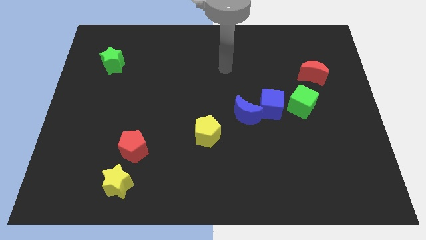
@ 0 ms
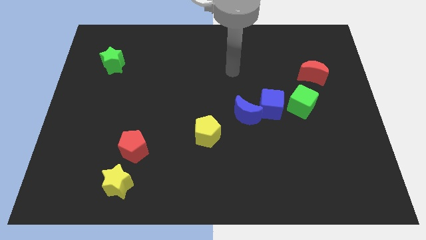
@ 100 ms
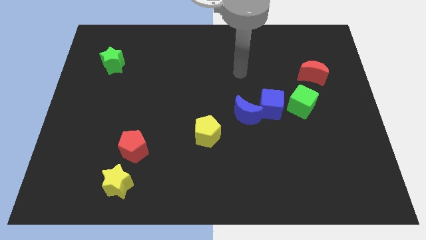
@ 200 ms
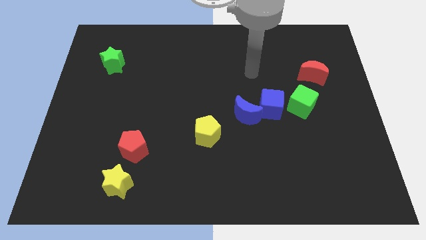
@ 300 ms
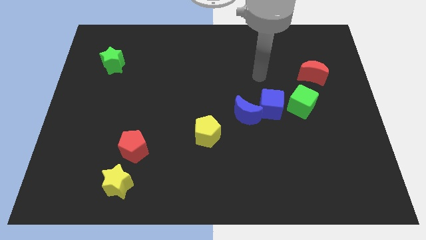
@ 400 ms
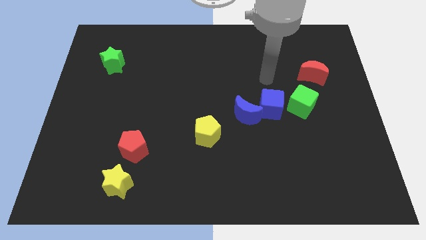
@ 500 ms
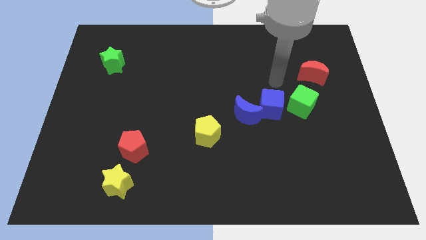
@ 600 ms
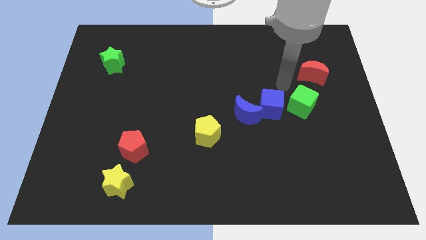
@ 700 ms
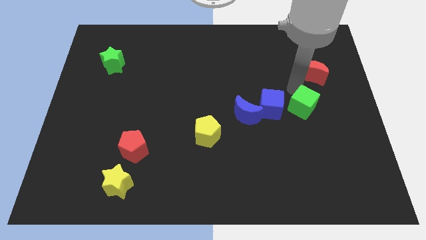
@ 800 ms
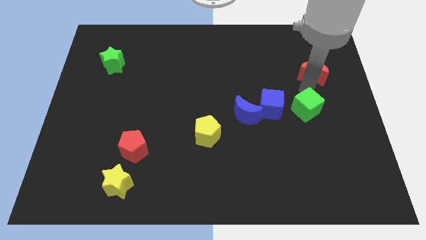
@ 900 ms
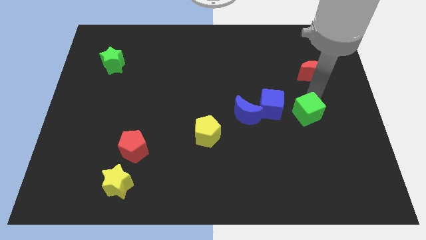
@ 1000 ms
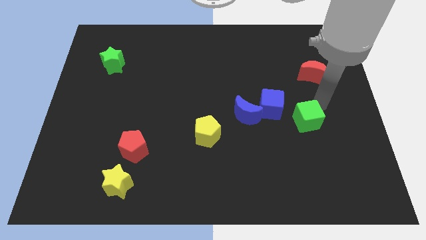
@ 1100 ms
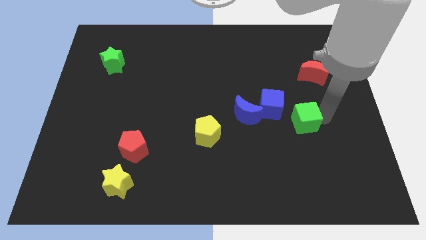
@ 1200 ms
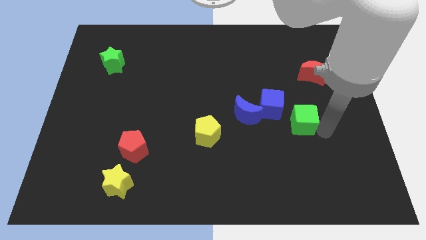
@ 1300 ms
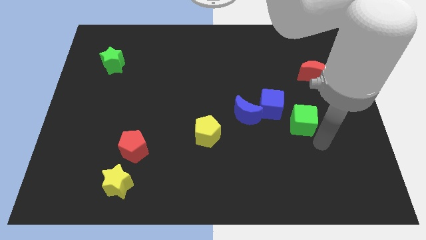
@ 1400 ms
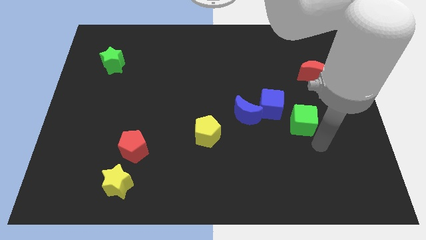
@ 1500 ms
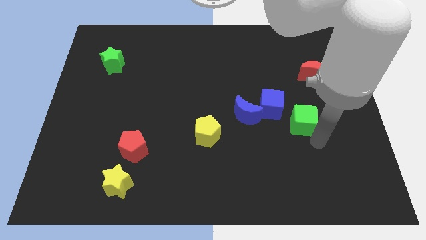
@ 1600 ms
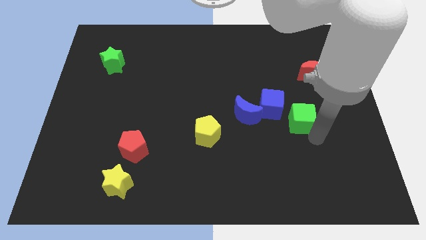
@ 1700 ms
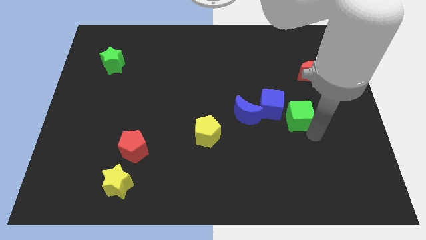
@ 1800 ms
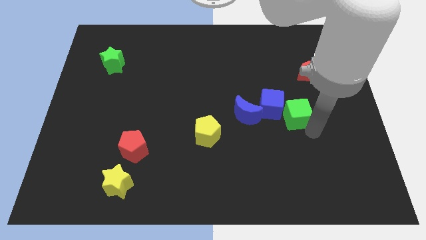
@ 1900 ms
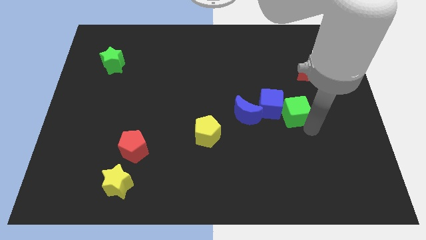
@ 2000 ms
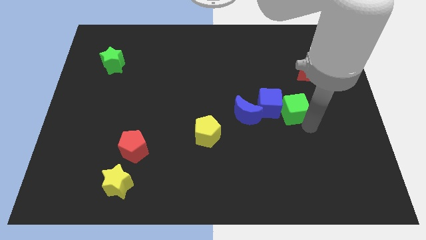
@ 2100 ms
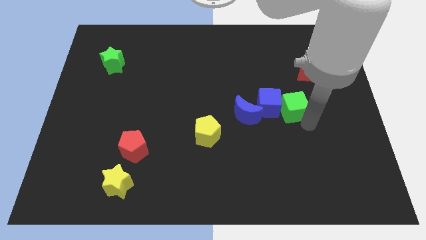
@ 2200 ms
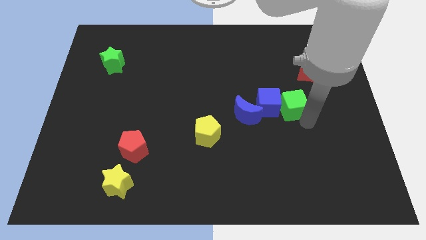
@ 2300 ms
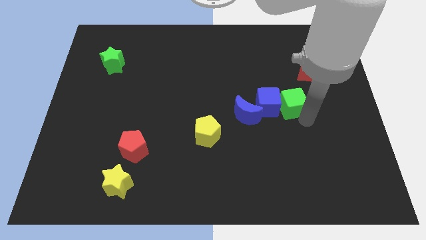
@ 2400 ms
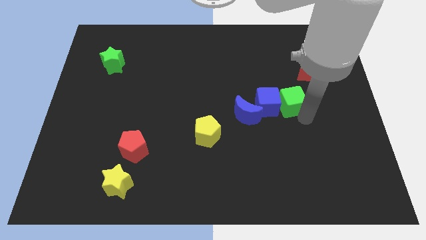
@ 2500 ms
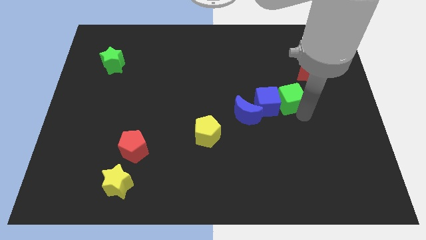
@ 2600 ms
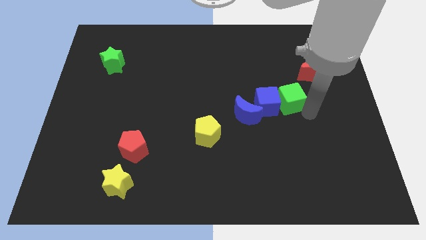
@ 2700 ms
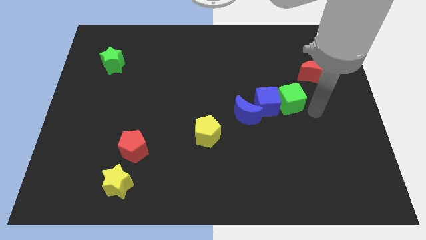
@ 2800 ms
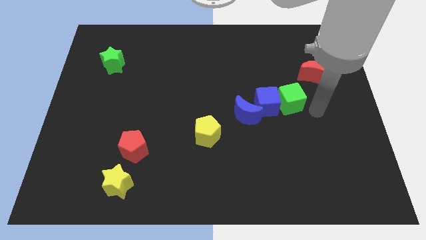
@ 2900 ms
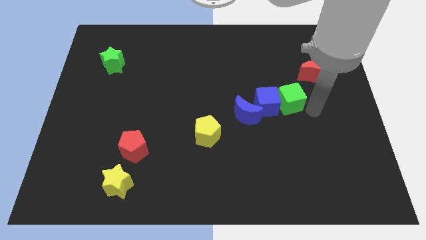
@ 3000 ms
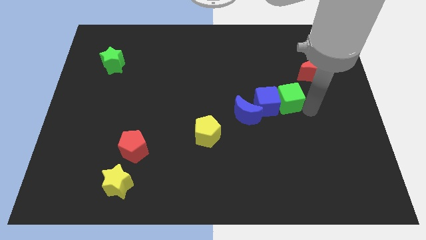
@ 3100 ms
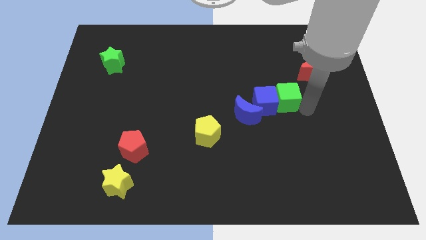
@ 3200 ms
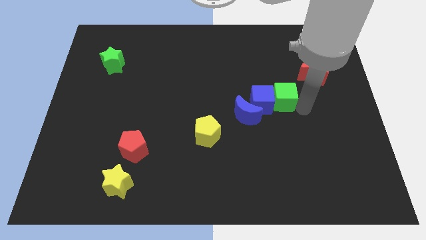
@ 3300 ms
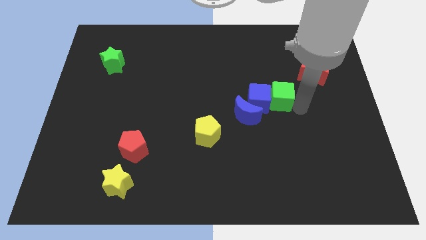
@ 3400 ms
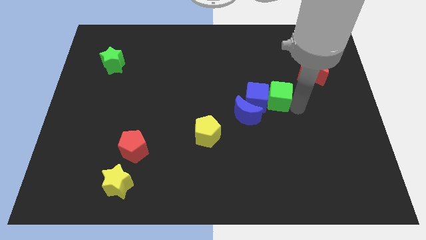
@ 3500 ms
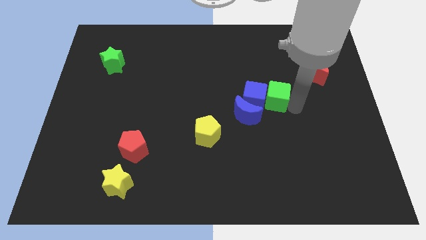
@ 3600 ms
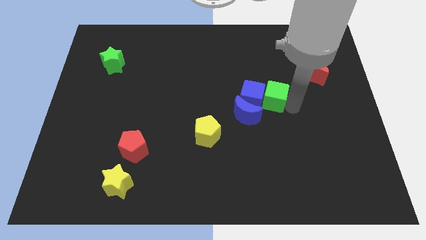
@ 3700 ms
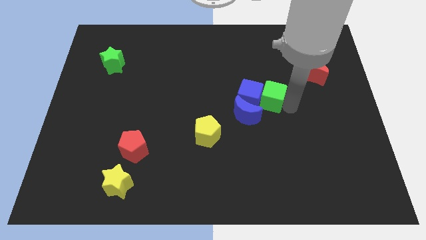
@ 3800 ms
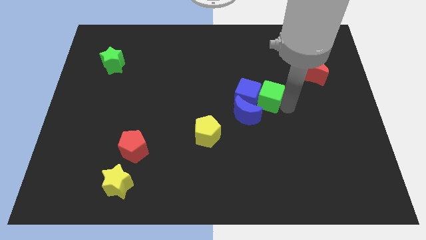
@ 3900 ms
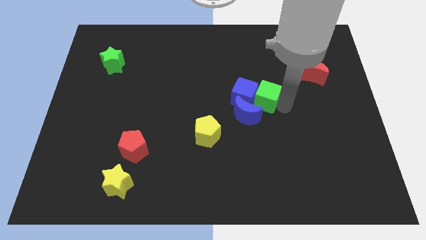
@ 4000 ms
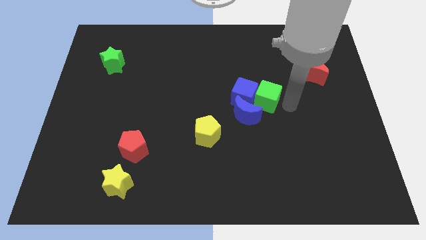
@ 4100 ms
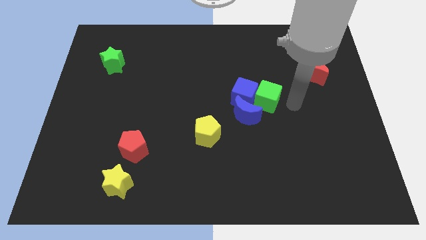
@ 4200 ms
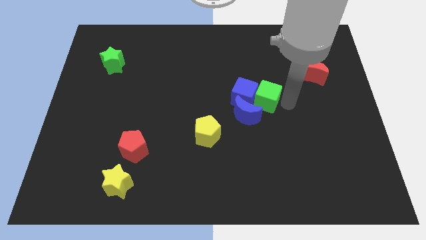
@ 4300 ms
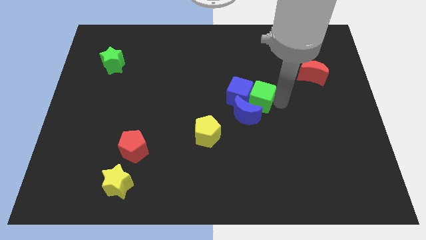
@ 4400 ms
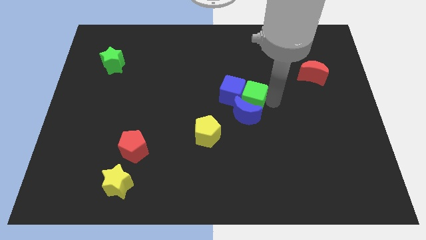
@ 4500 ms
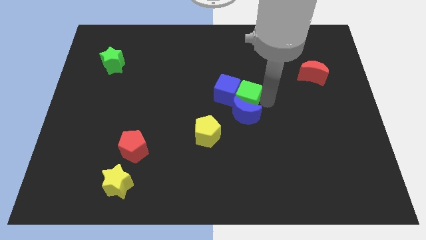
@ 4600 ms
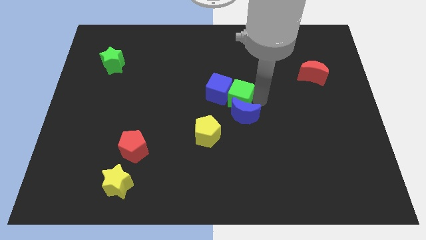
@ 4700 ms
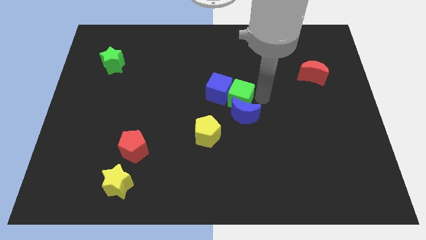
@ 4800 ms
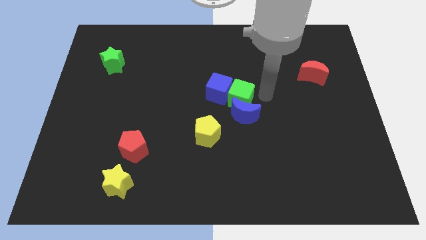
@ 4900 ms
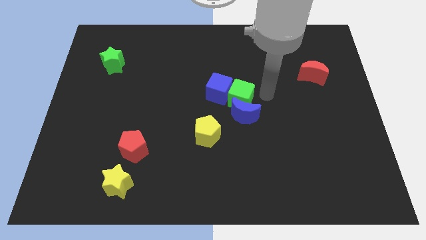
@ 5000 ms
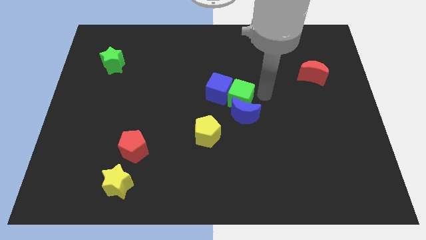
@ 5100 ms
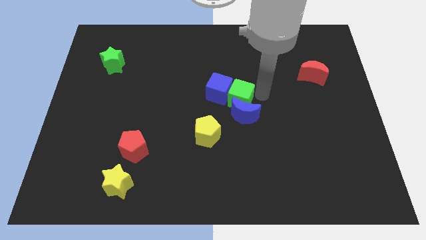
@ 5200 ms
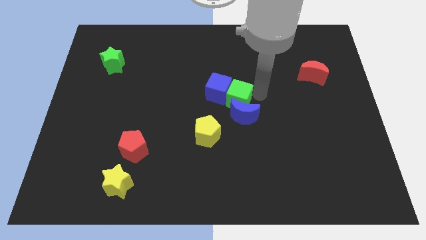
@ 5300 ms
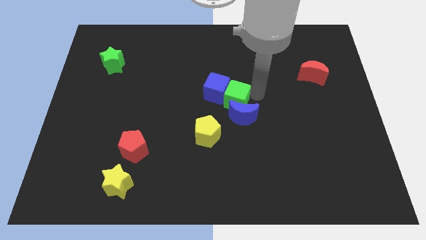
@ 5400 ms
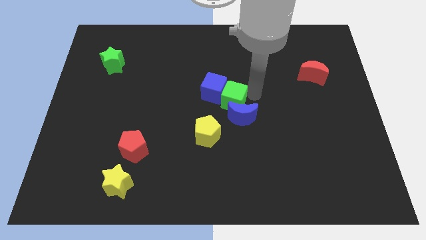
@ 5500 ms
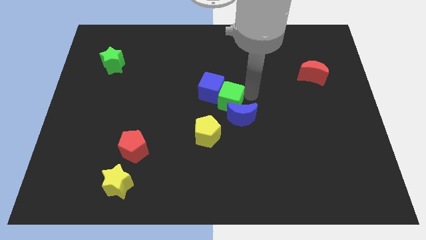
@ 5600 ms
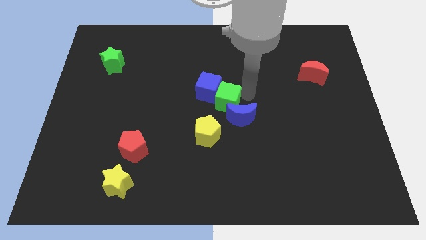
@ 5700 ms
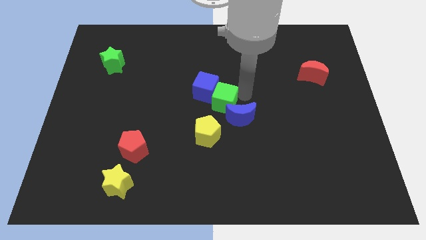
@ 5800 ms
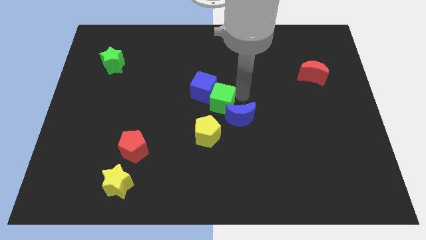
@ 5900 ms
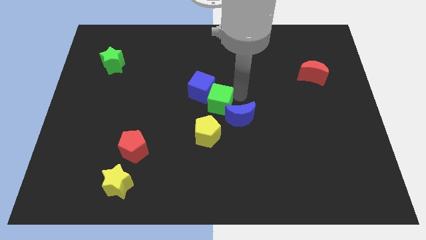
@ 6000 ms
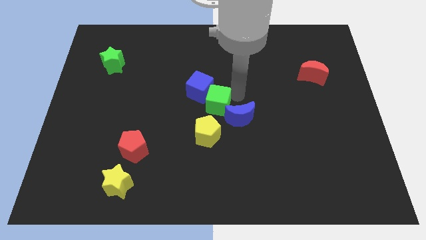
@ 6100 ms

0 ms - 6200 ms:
slide the green cube to the left

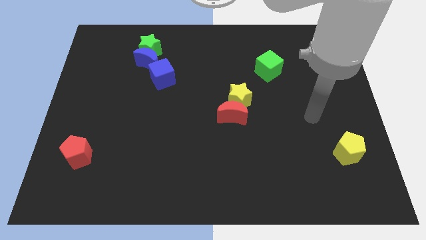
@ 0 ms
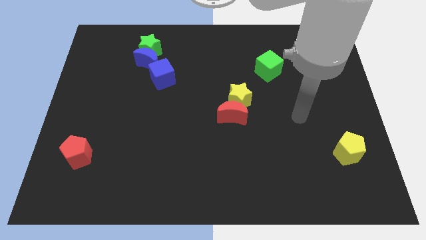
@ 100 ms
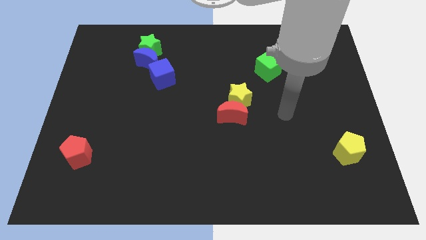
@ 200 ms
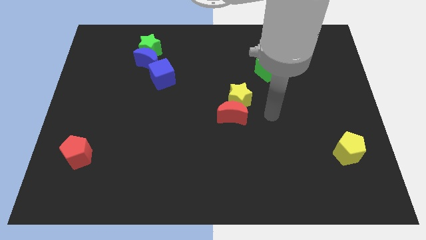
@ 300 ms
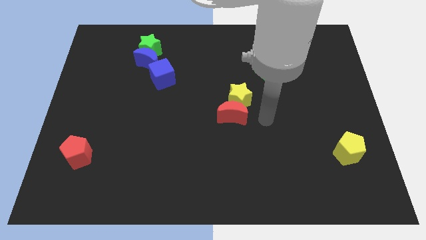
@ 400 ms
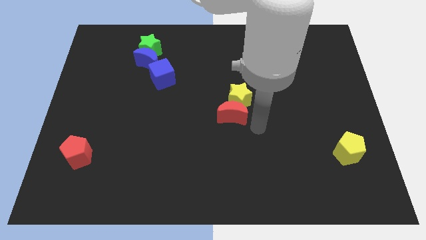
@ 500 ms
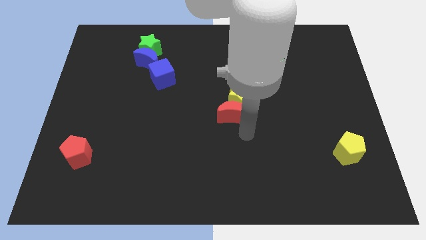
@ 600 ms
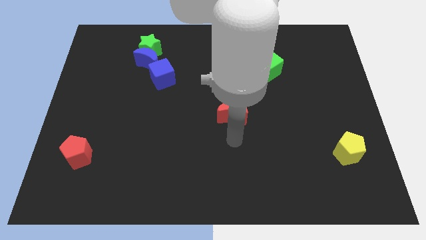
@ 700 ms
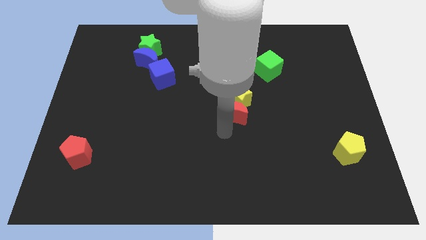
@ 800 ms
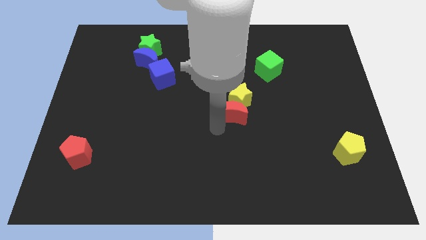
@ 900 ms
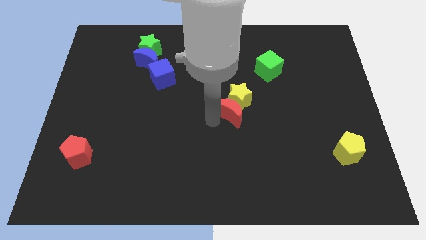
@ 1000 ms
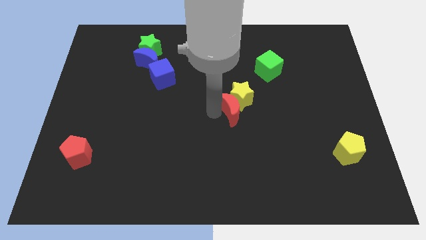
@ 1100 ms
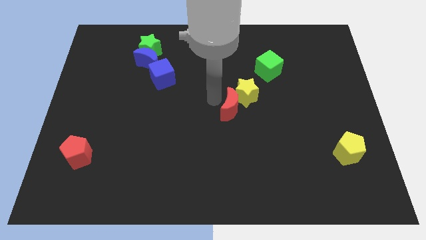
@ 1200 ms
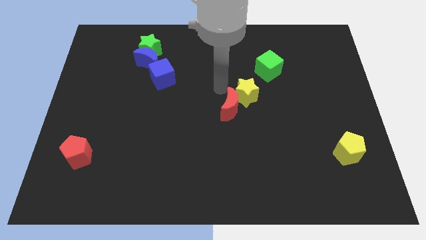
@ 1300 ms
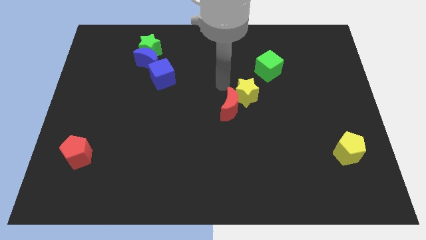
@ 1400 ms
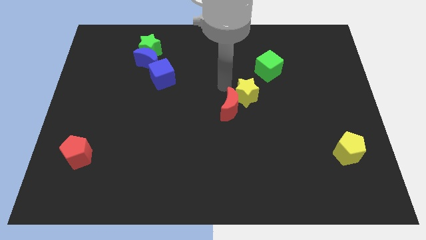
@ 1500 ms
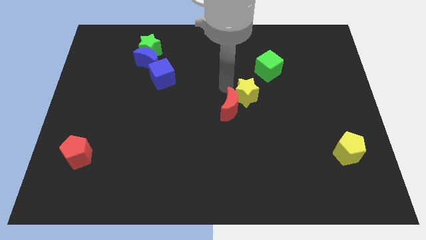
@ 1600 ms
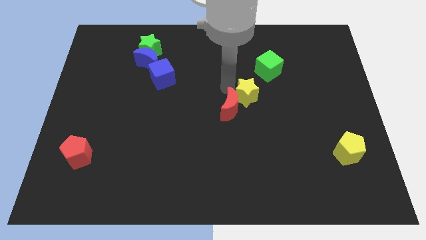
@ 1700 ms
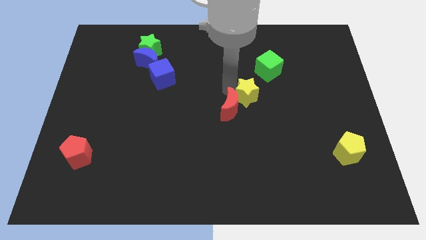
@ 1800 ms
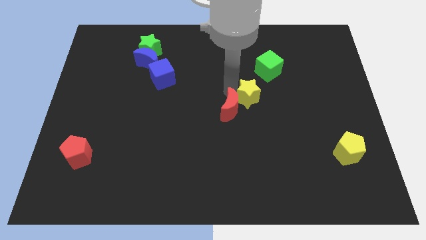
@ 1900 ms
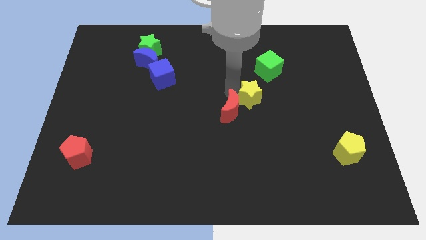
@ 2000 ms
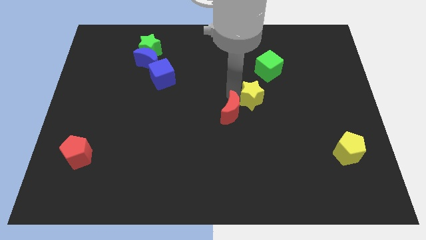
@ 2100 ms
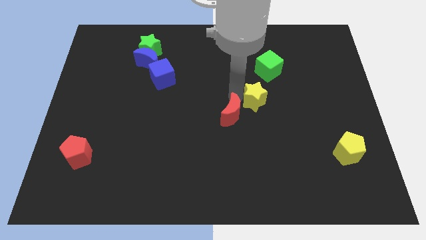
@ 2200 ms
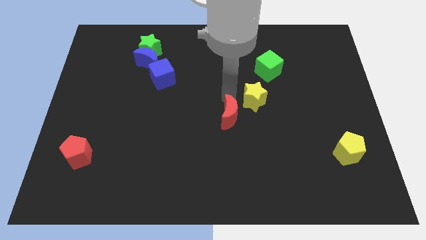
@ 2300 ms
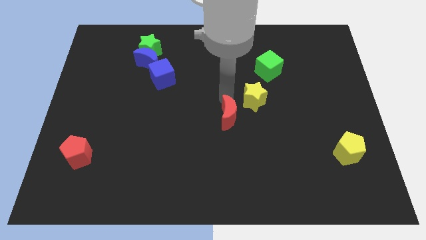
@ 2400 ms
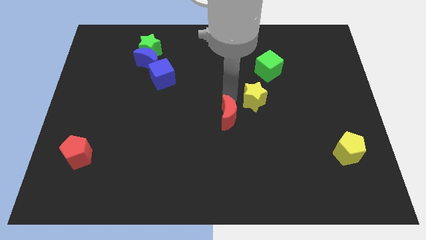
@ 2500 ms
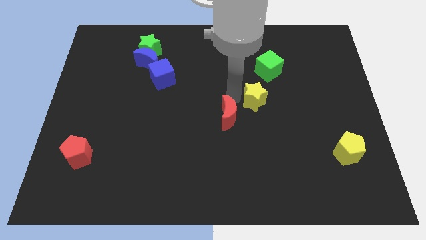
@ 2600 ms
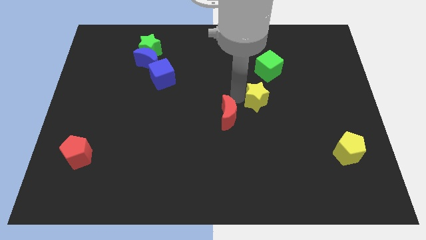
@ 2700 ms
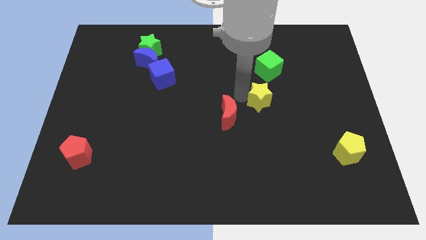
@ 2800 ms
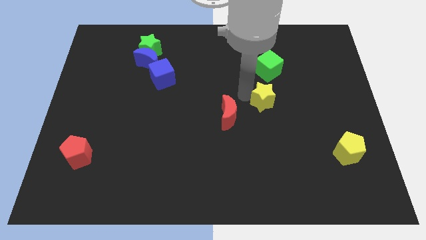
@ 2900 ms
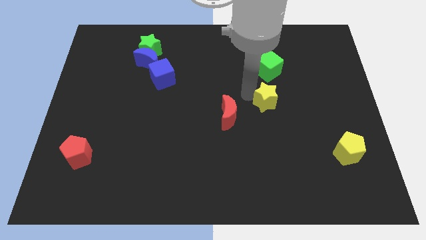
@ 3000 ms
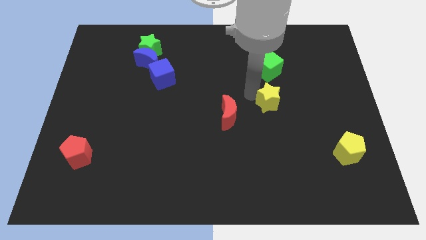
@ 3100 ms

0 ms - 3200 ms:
move the yellow star to the right a little bit
